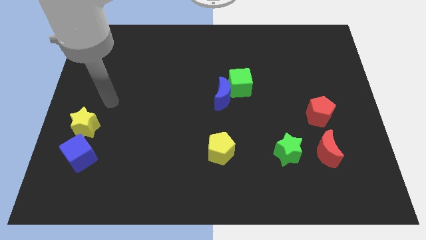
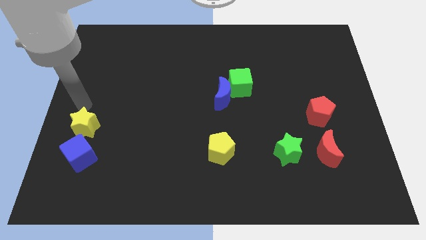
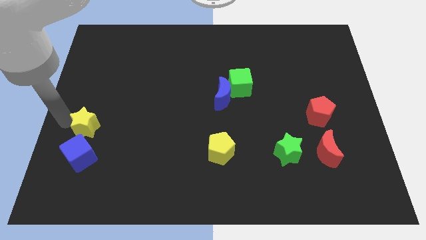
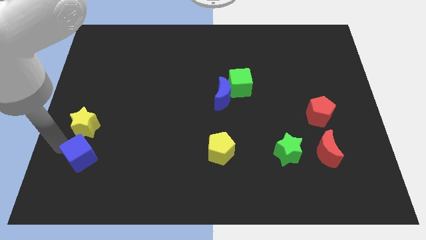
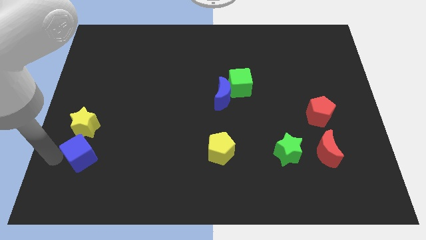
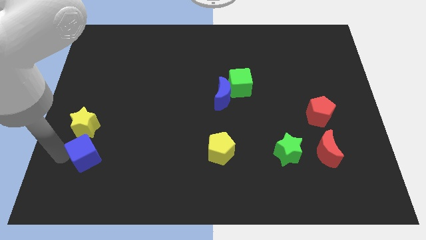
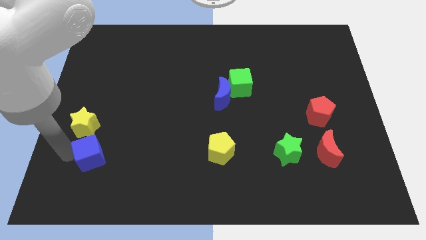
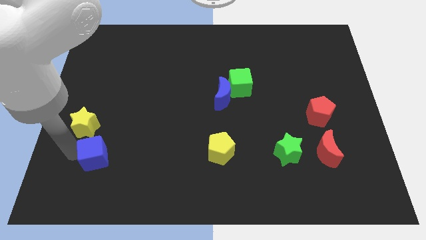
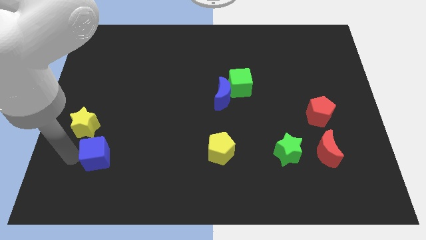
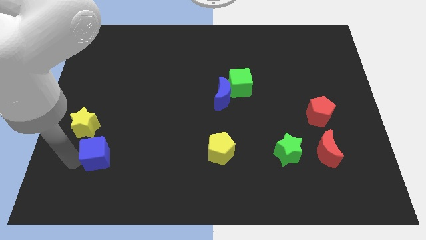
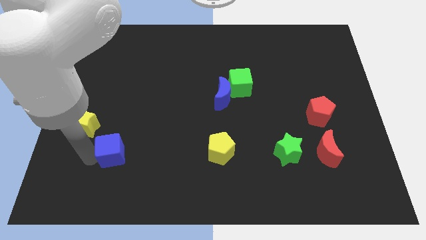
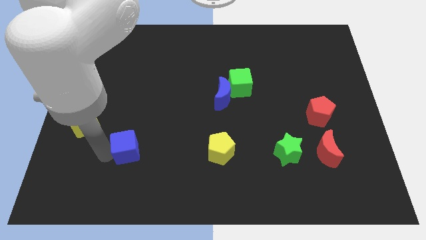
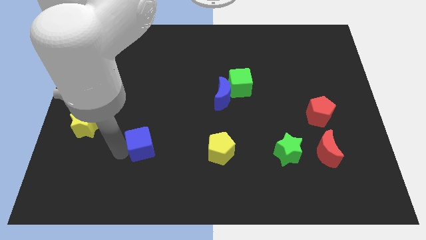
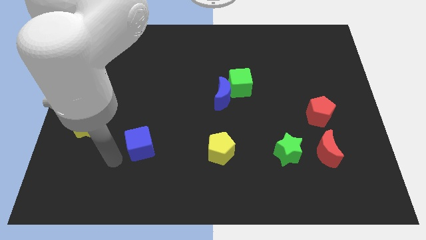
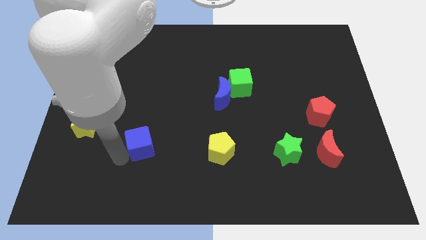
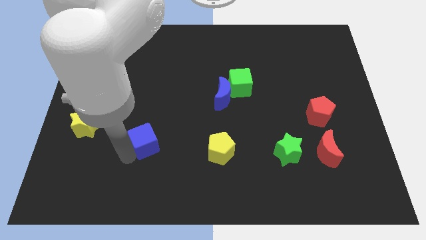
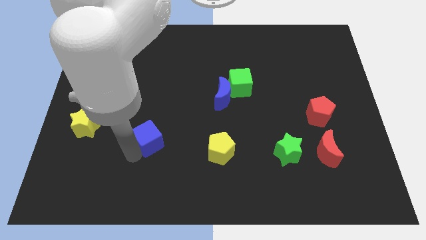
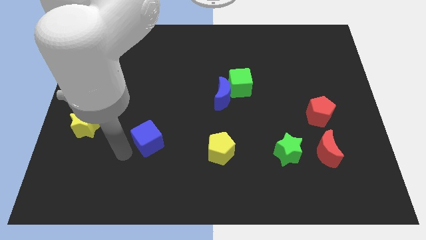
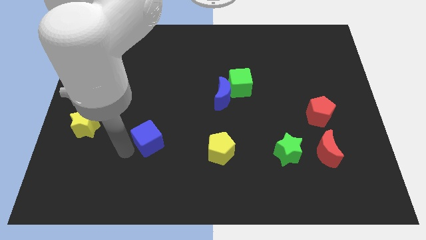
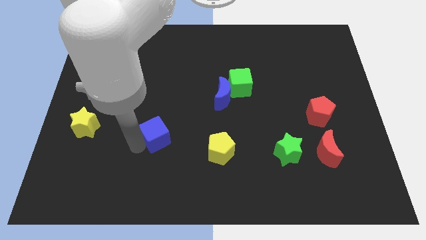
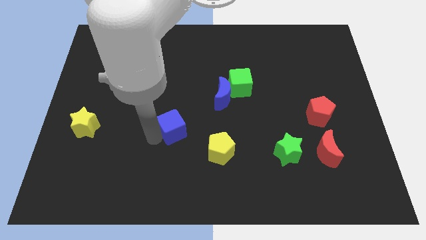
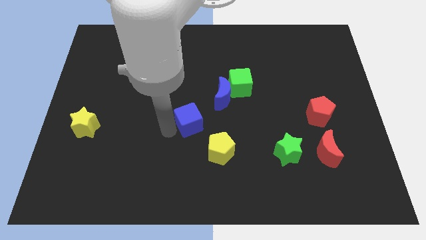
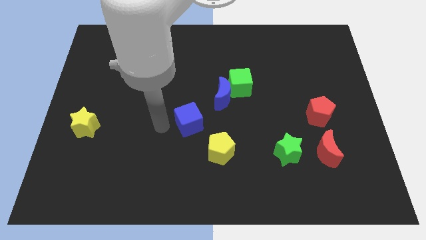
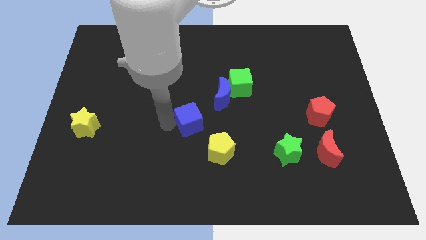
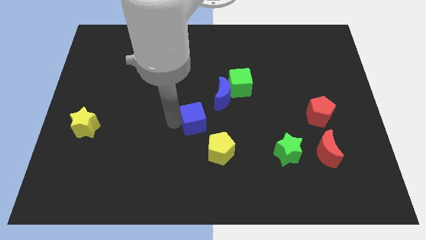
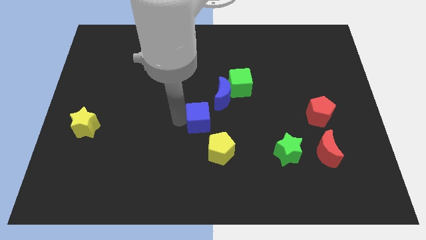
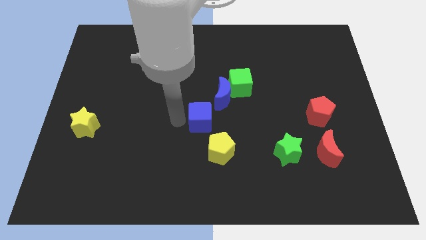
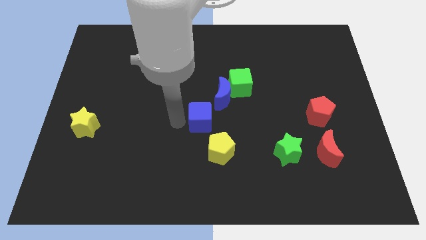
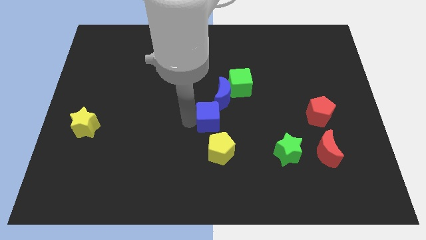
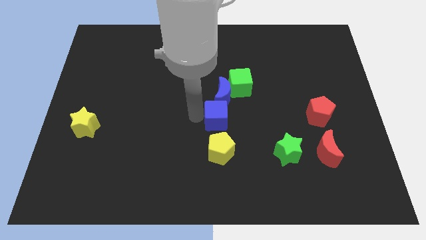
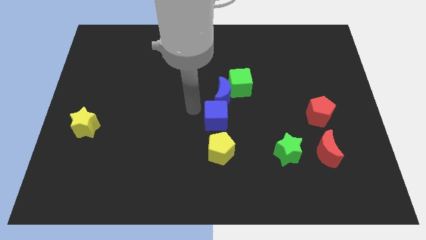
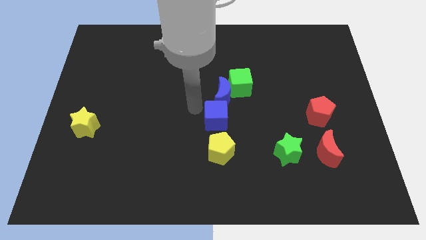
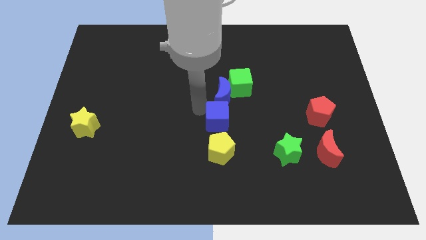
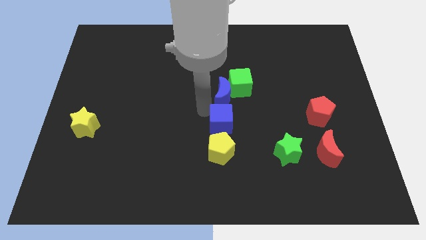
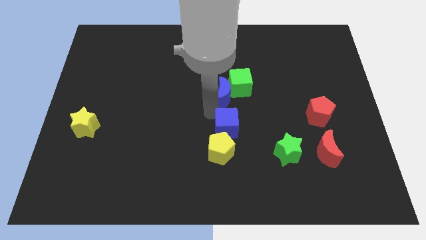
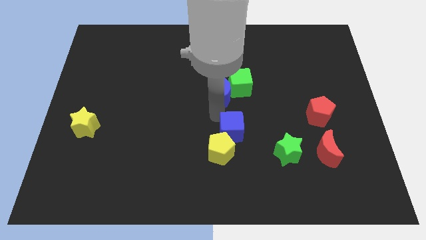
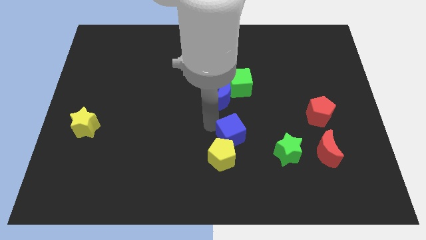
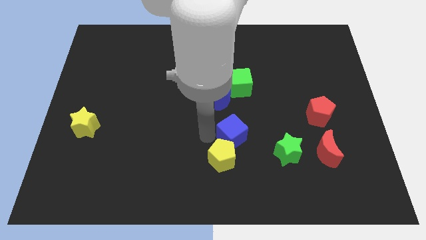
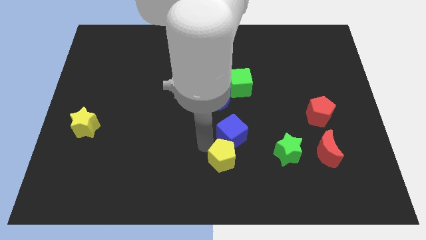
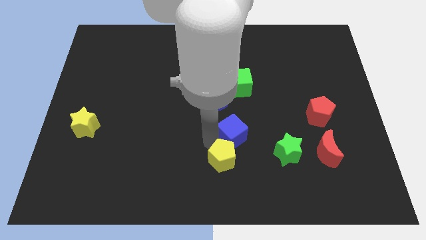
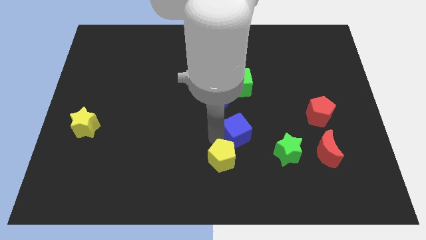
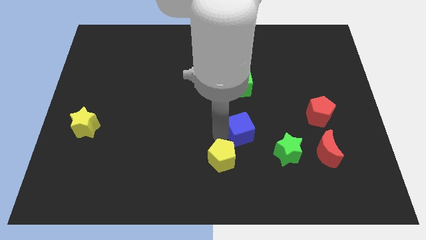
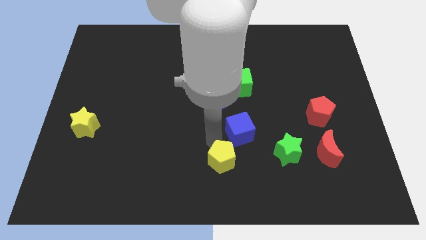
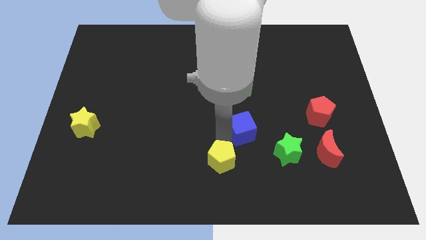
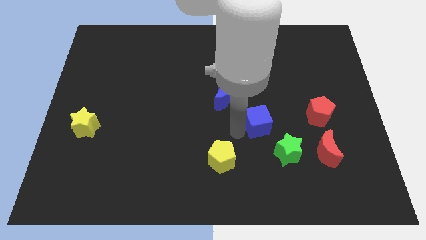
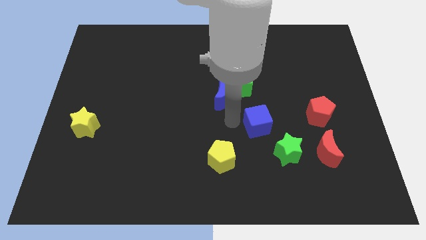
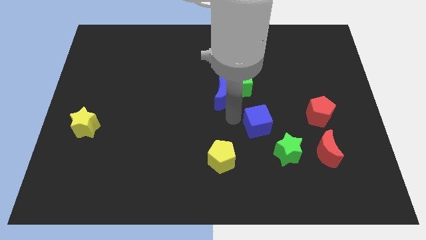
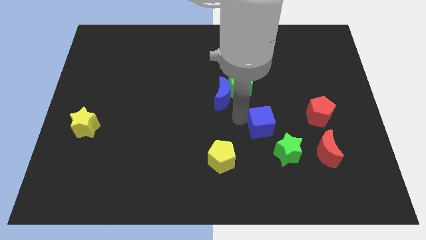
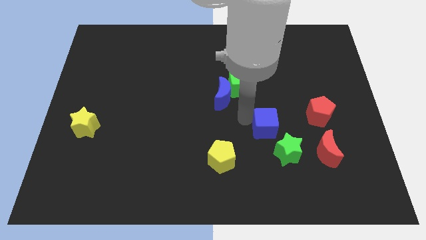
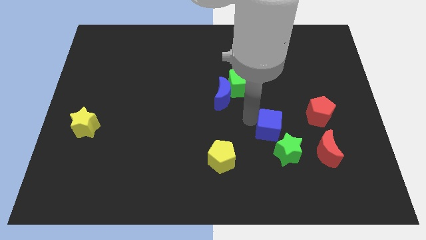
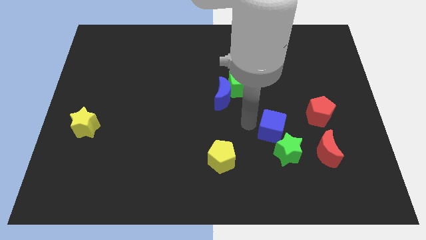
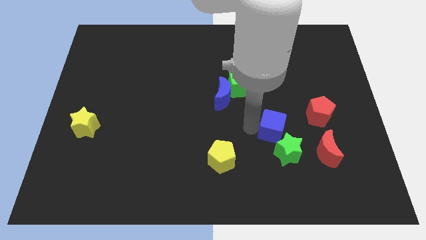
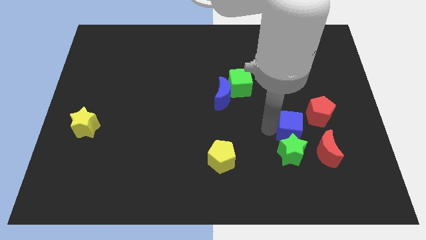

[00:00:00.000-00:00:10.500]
put the blue cube diagonally up and to the right of the green star

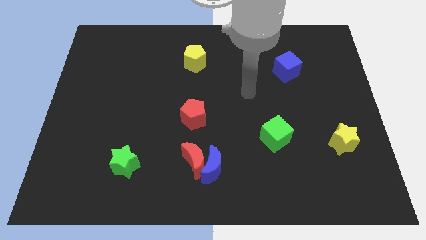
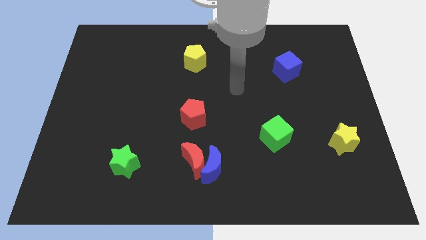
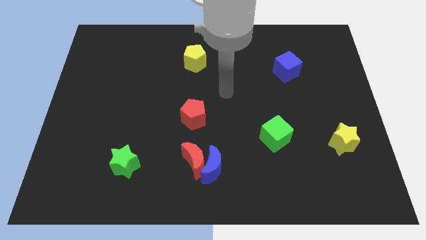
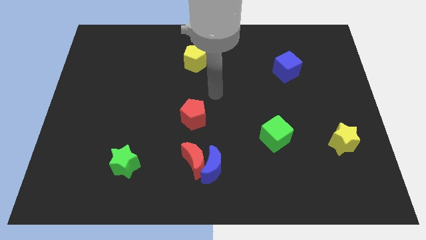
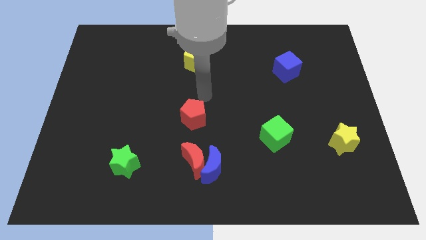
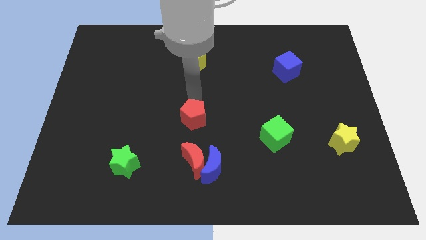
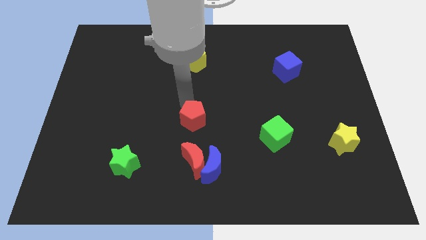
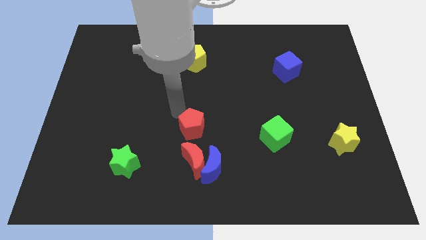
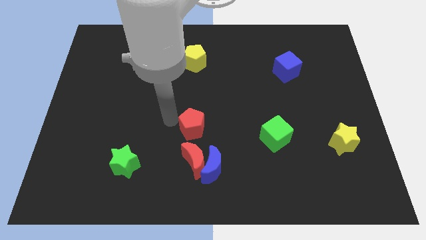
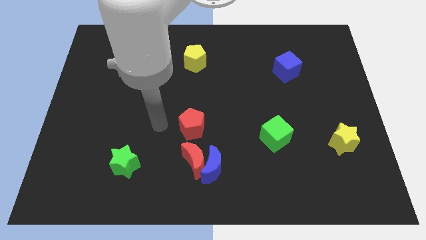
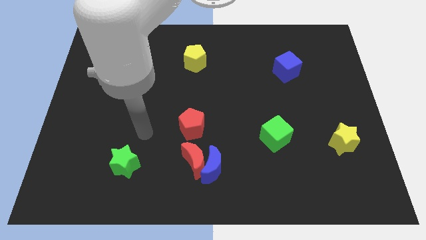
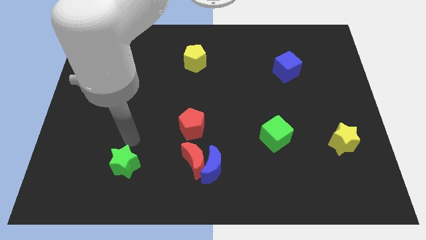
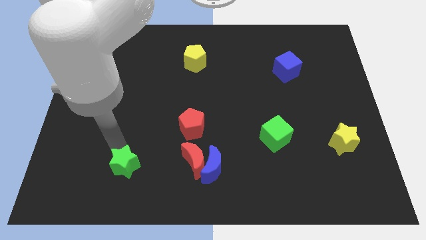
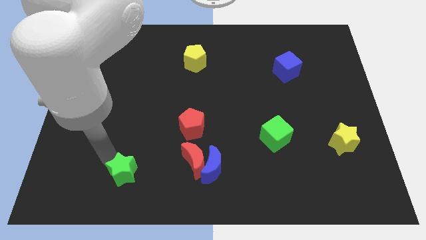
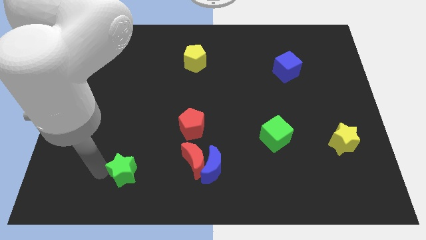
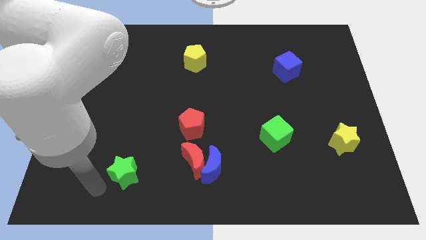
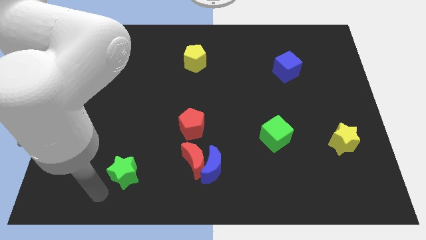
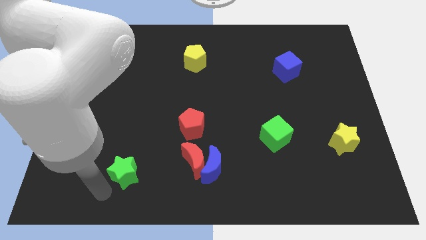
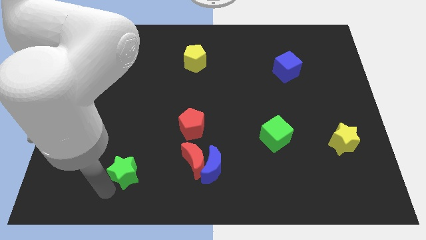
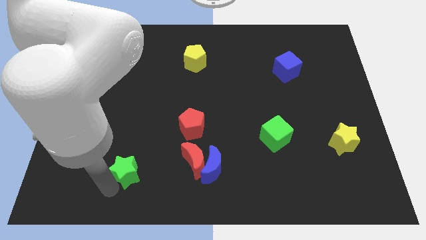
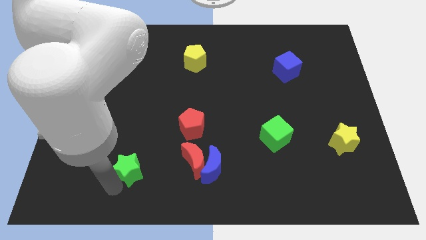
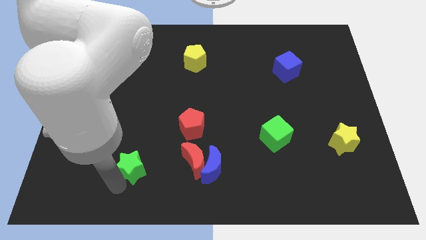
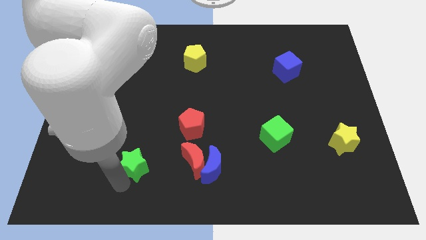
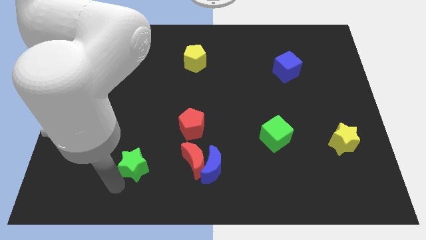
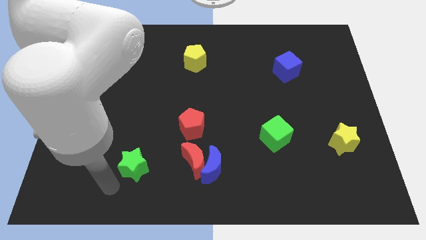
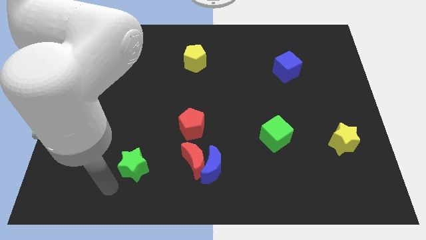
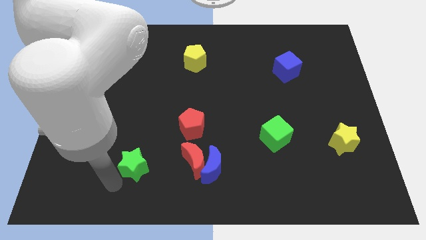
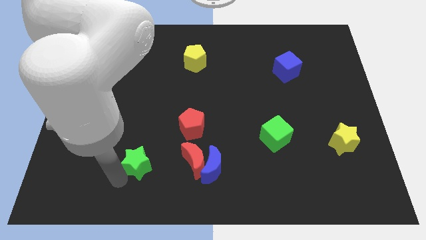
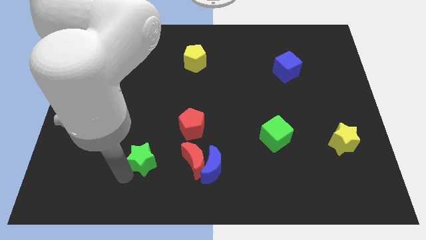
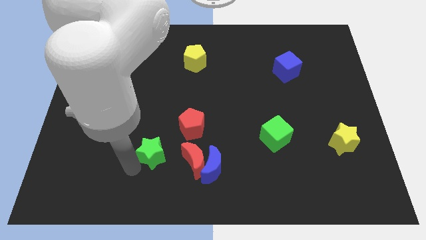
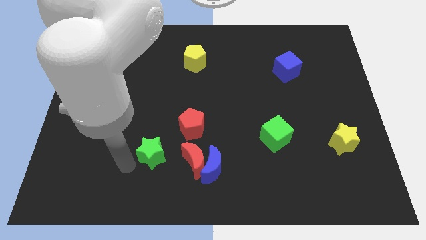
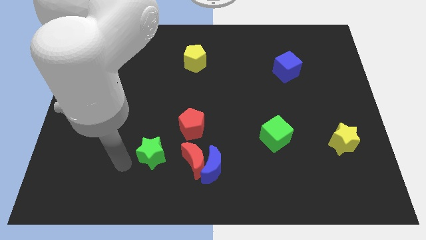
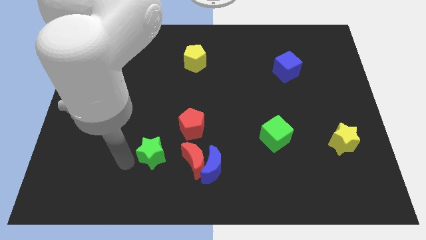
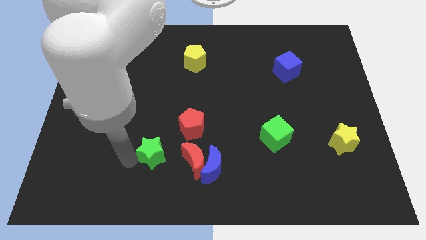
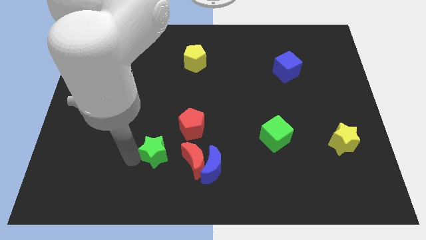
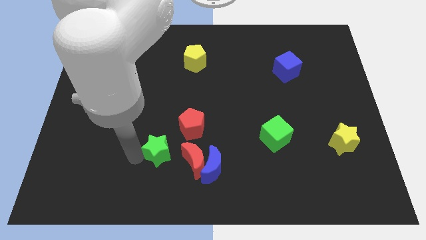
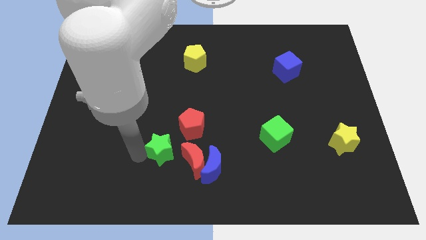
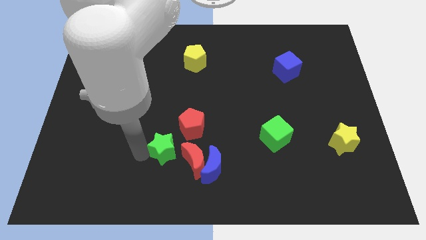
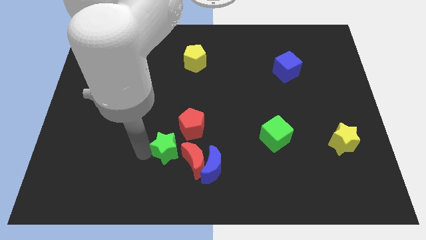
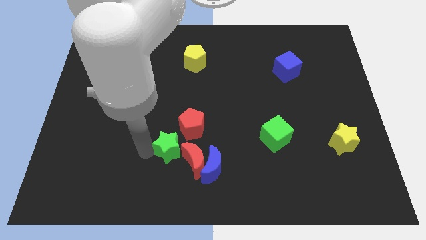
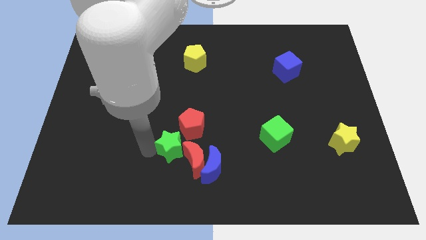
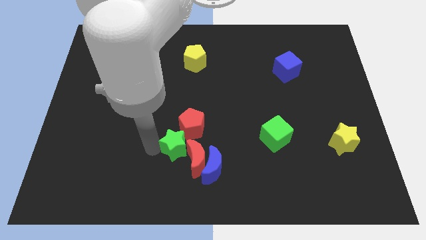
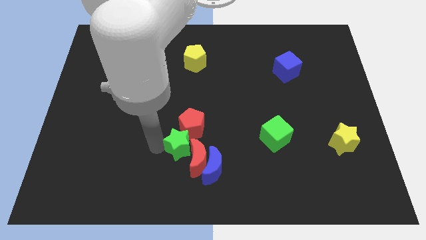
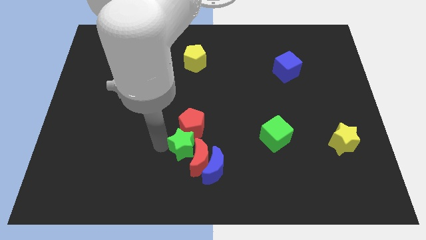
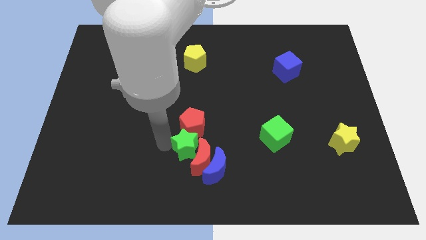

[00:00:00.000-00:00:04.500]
move the green star diagonally down and to the right of the red pentagon
